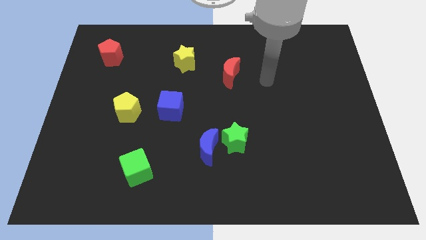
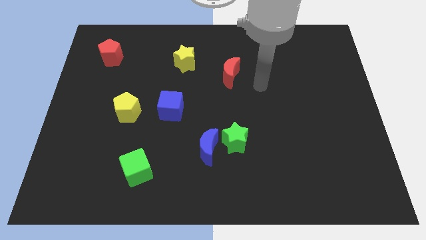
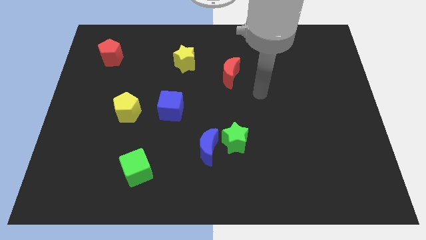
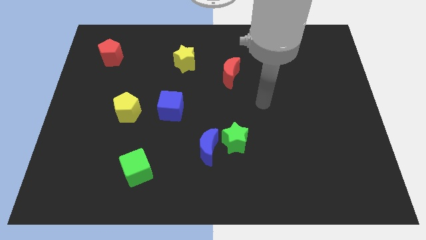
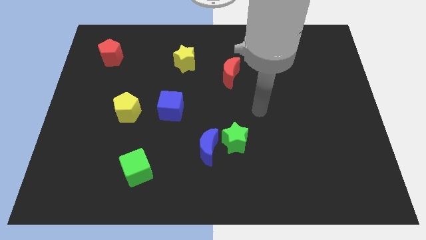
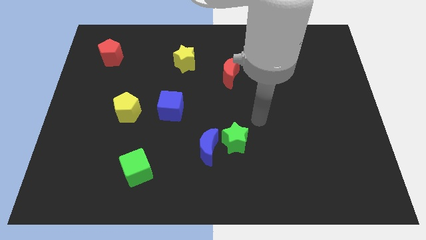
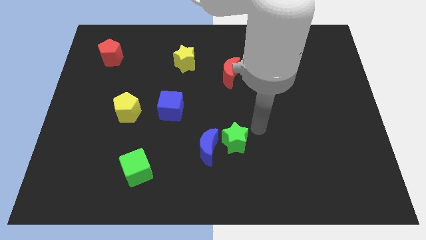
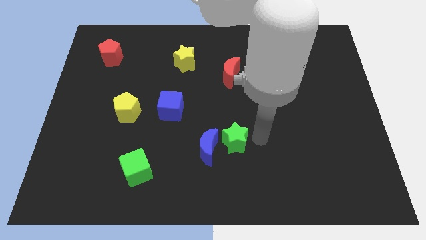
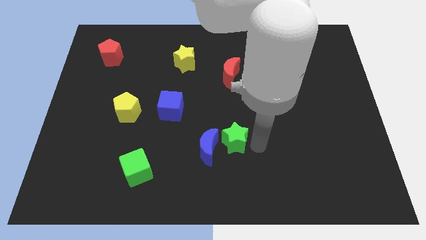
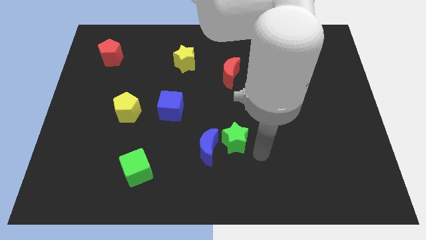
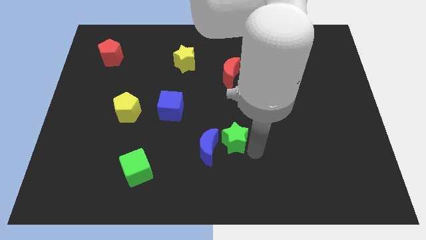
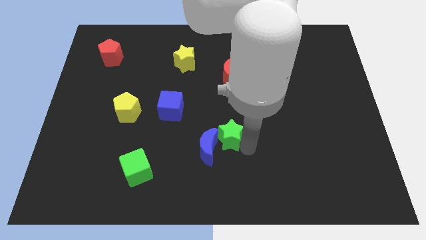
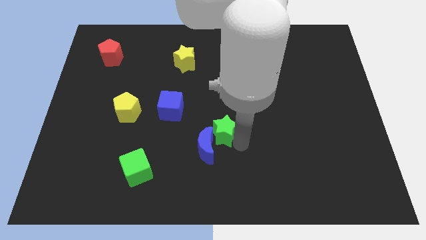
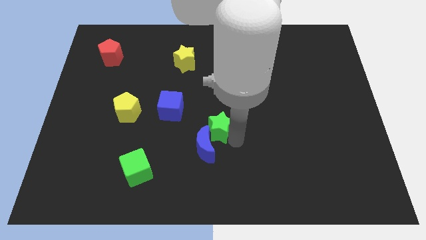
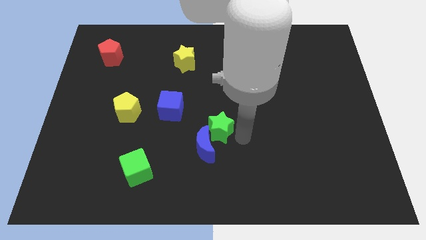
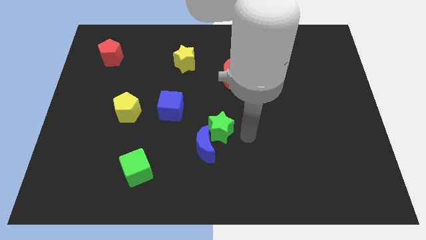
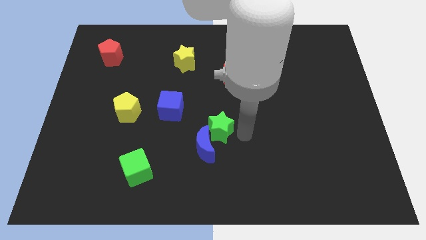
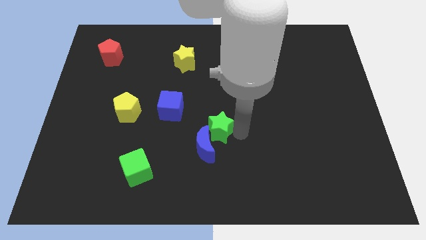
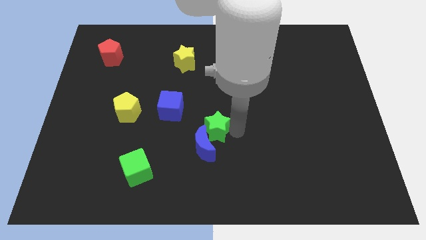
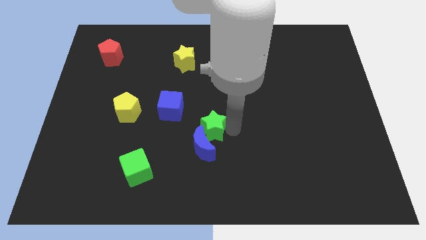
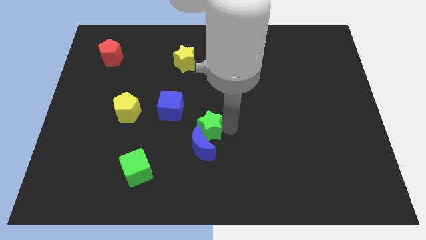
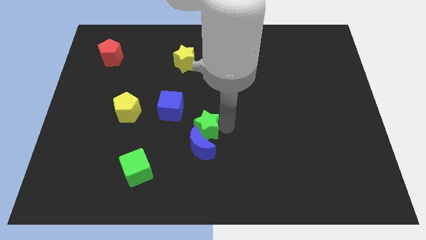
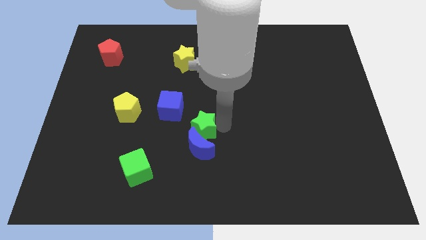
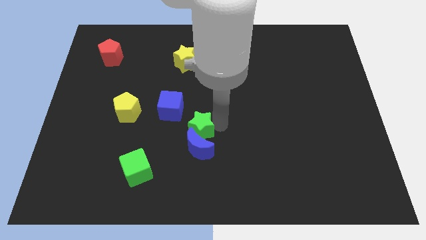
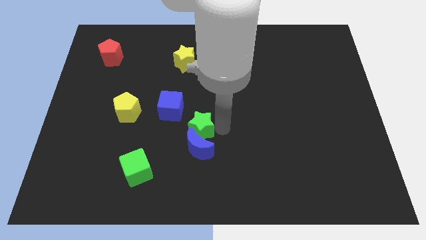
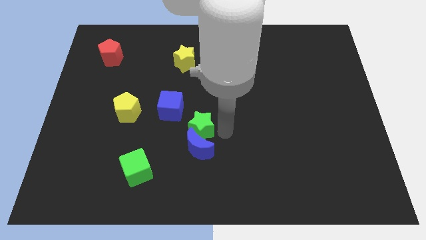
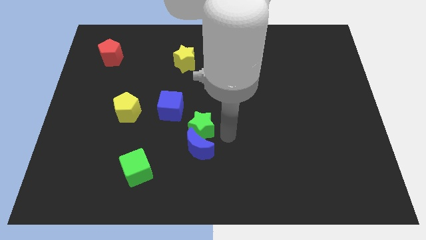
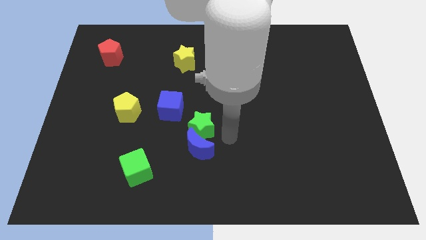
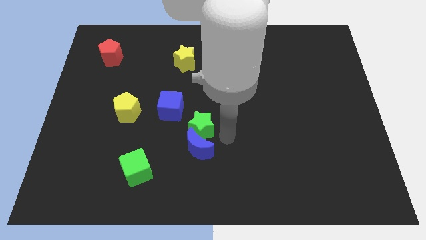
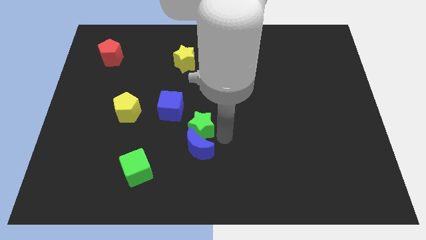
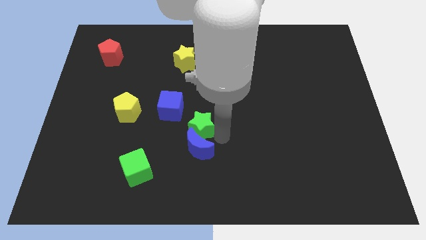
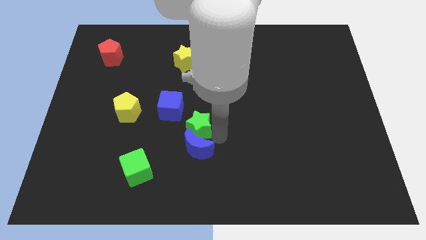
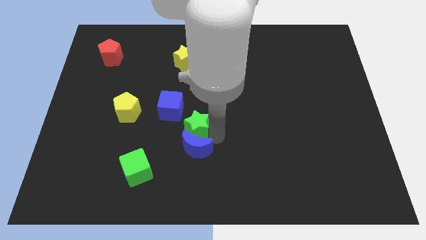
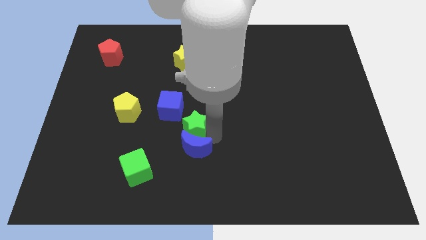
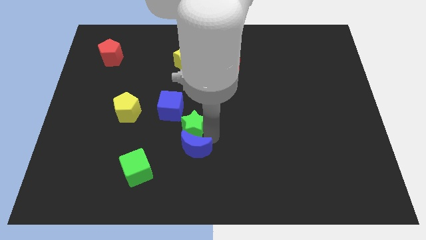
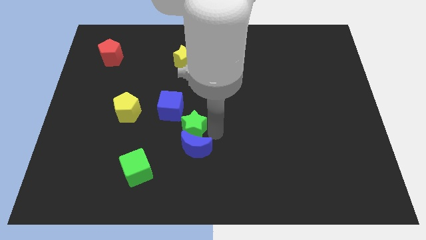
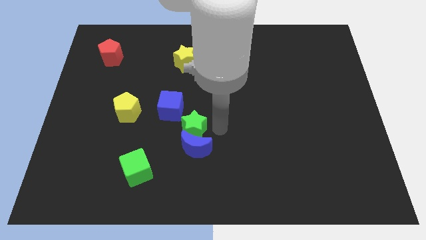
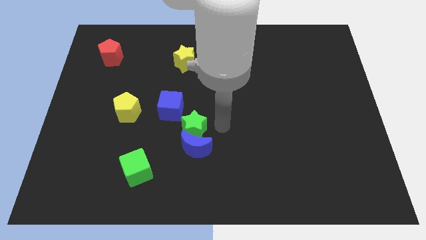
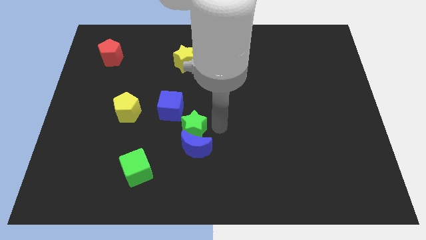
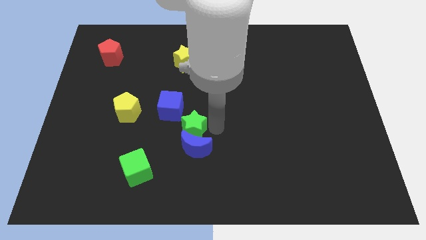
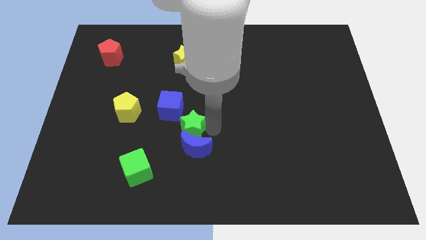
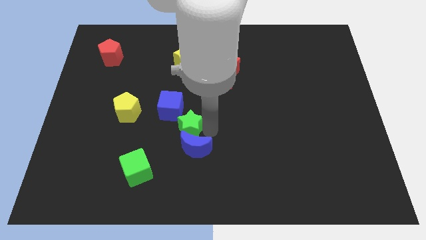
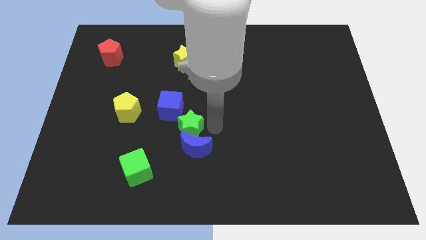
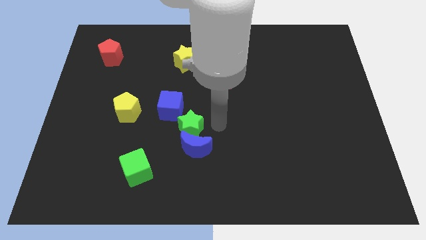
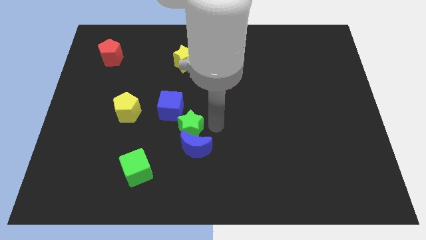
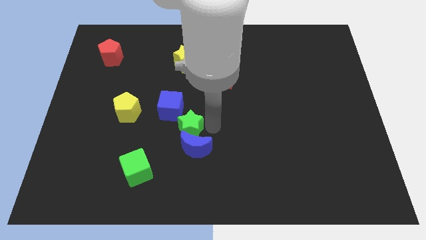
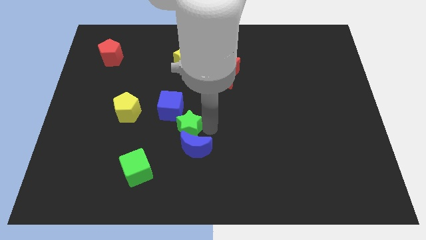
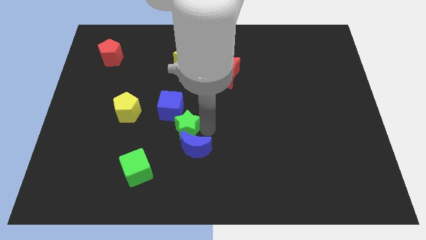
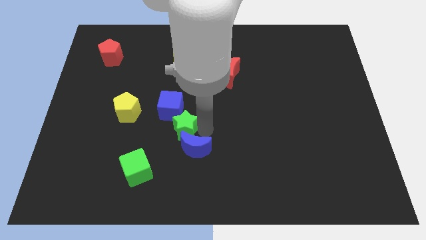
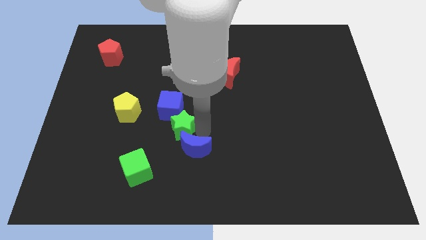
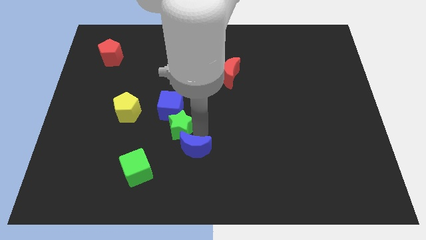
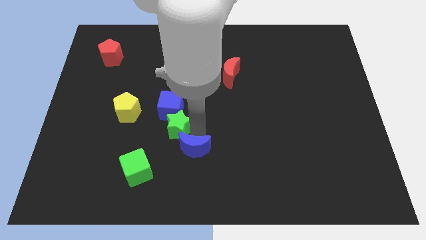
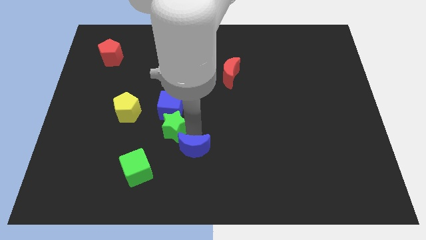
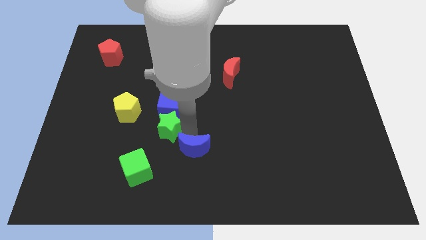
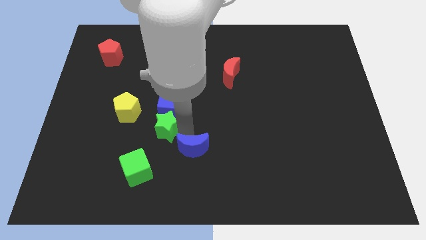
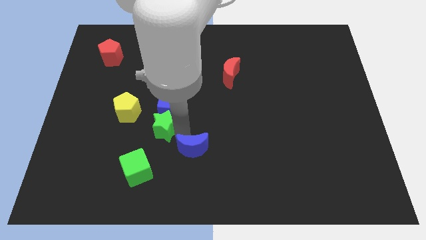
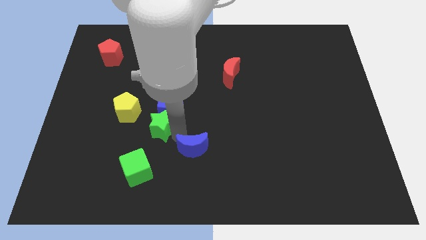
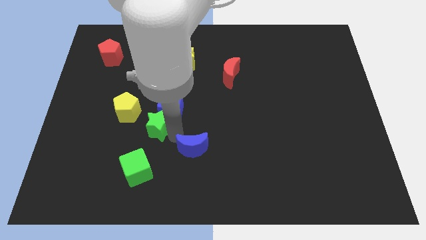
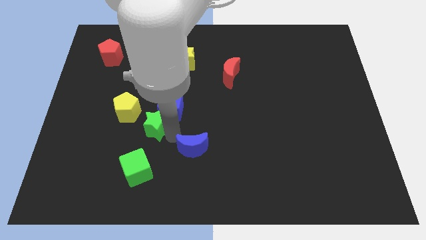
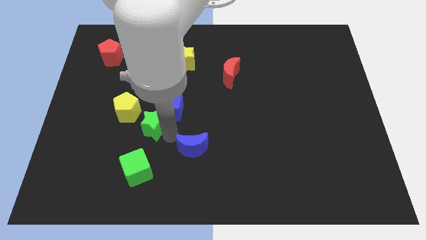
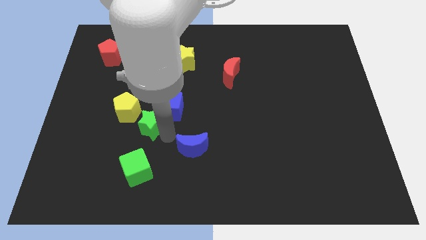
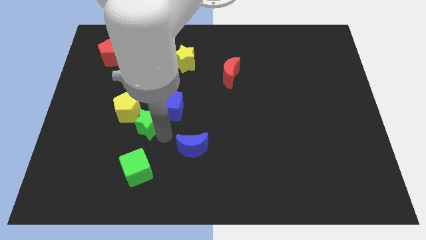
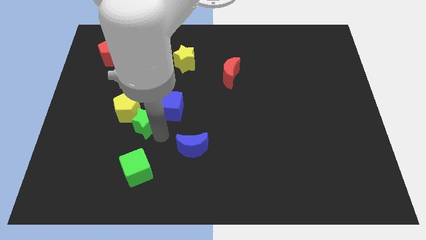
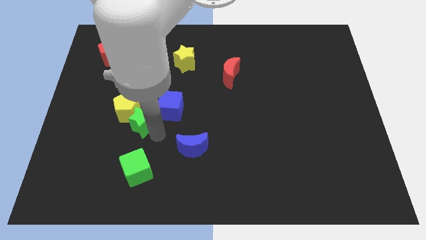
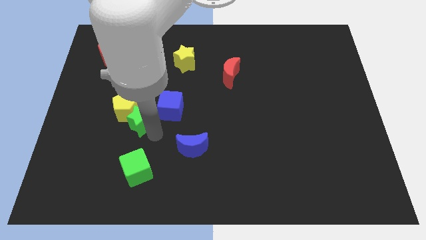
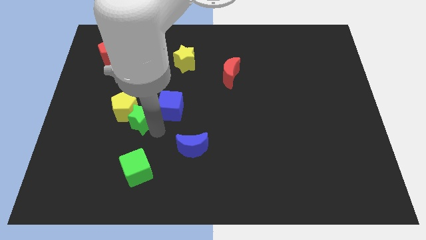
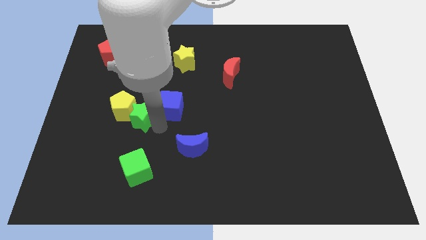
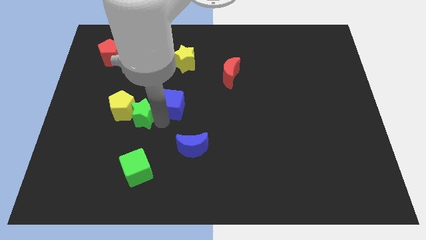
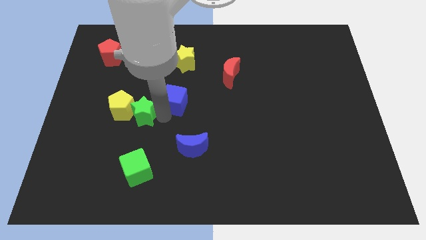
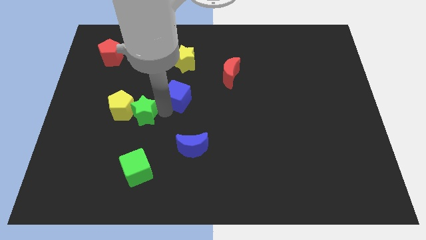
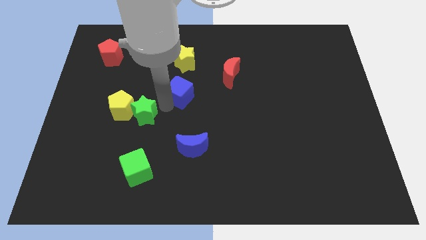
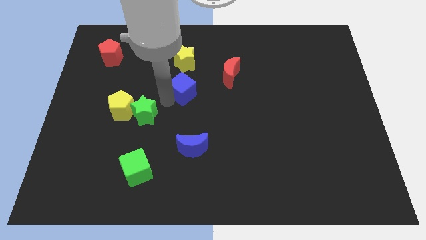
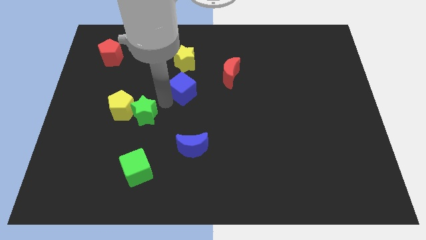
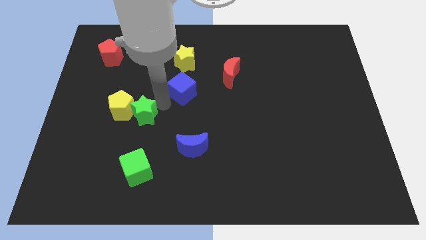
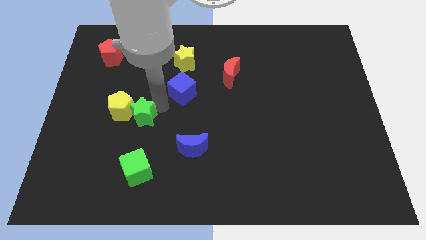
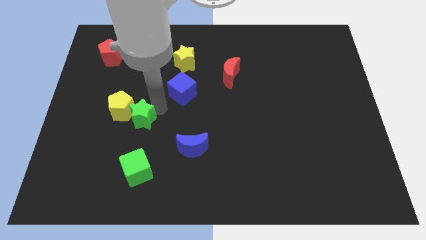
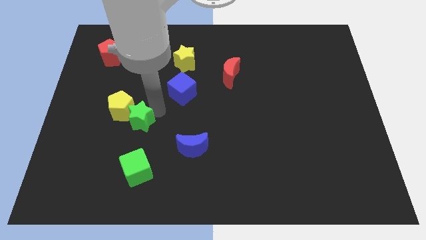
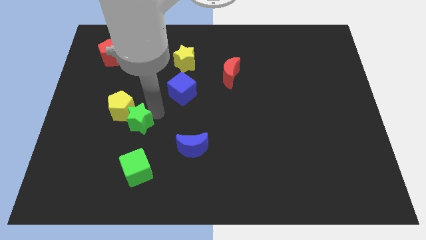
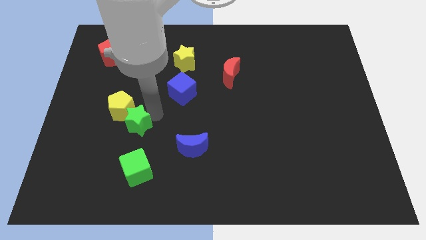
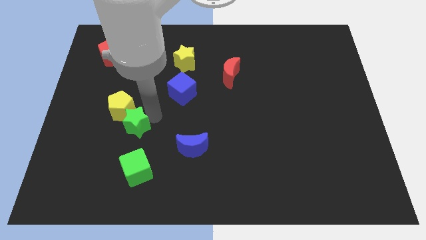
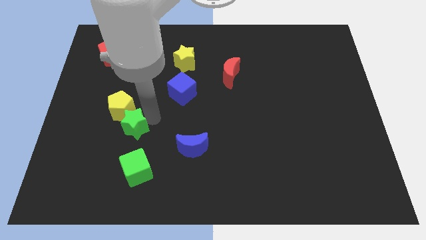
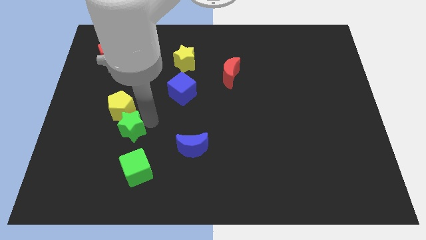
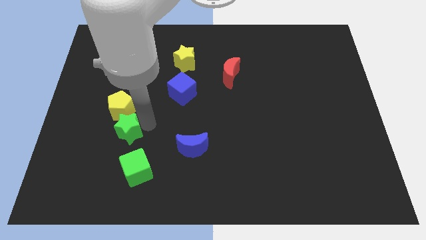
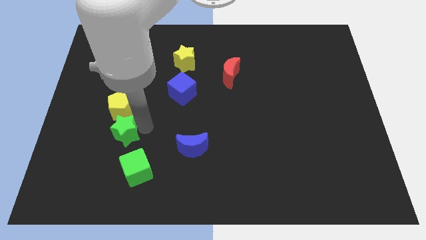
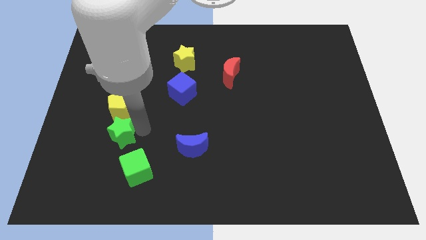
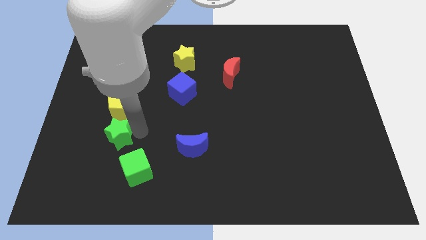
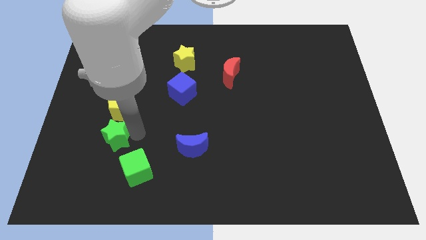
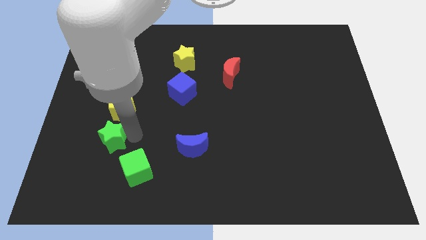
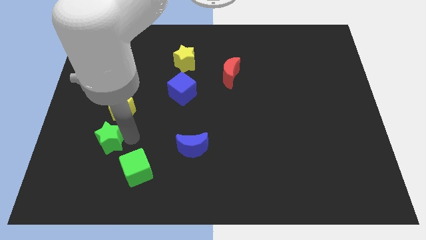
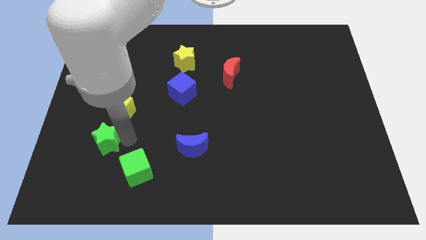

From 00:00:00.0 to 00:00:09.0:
put the green star to the bottom left of the yellow pentagon
